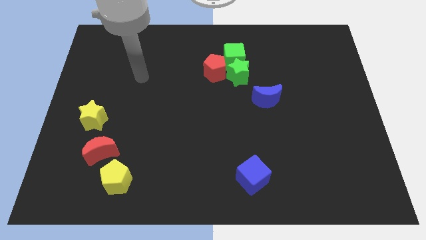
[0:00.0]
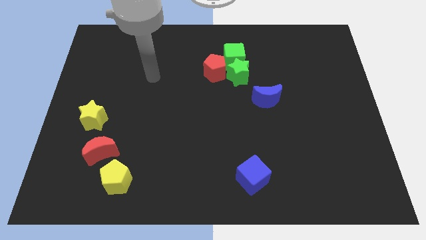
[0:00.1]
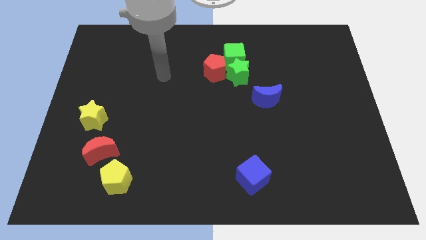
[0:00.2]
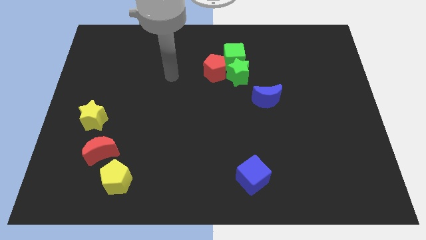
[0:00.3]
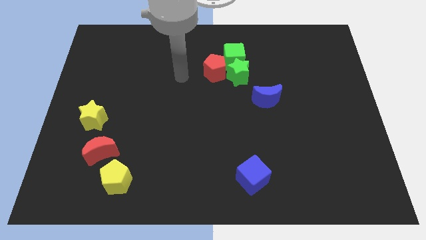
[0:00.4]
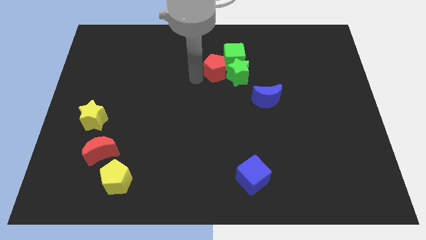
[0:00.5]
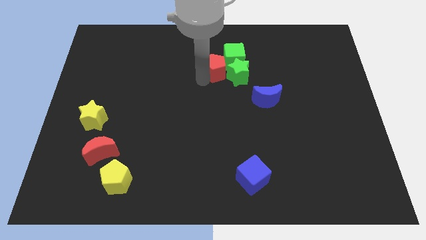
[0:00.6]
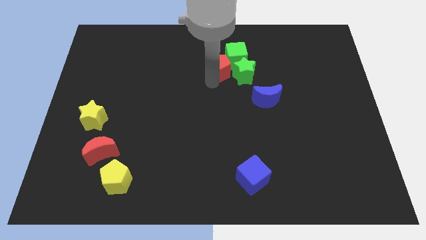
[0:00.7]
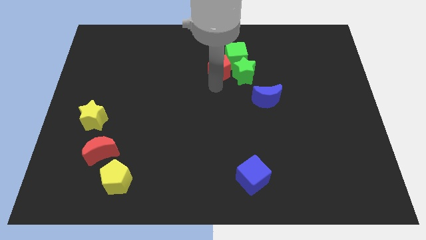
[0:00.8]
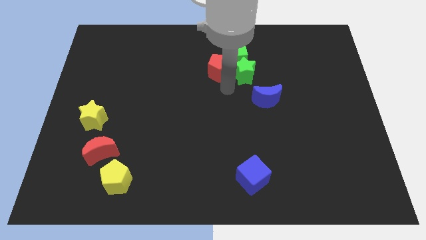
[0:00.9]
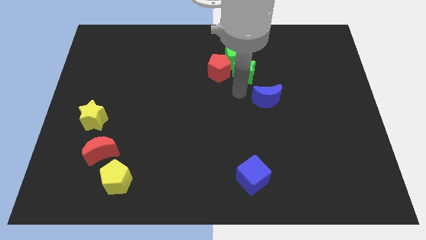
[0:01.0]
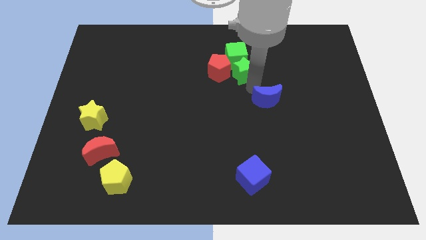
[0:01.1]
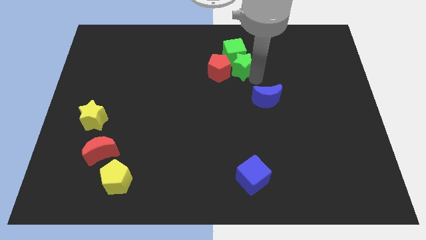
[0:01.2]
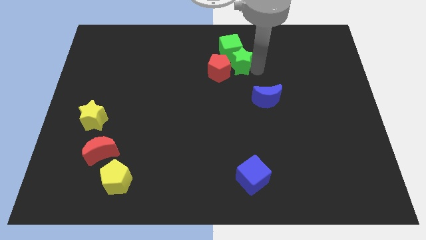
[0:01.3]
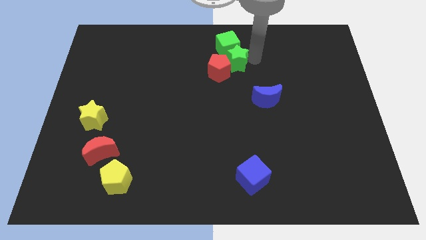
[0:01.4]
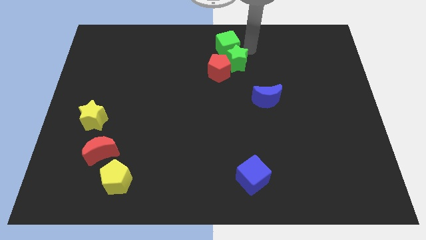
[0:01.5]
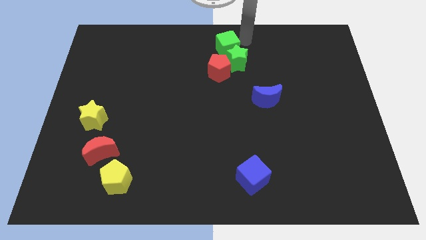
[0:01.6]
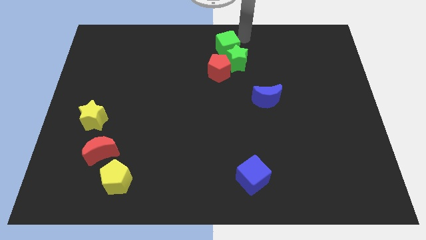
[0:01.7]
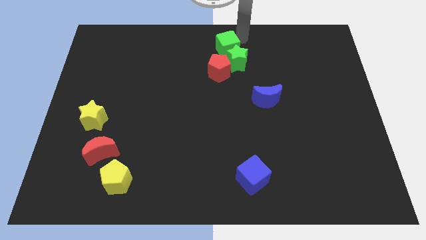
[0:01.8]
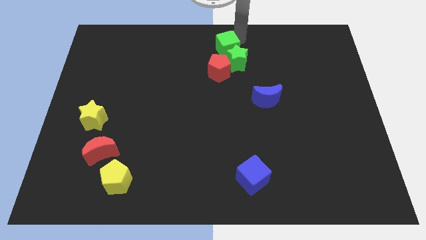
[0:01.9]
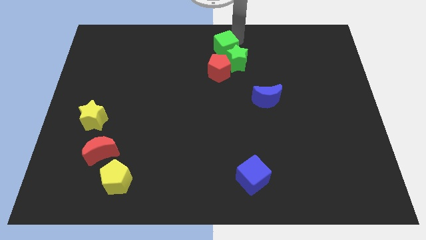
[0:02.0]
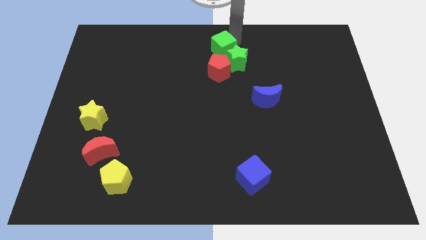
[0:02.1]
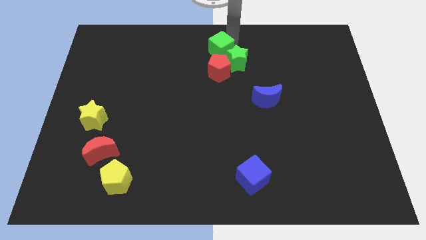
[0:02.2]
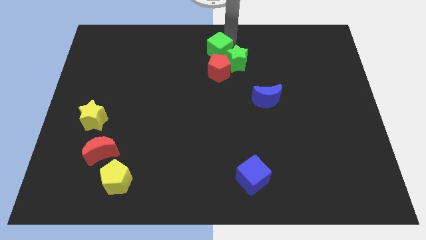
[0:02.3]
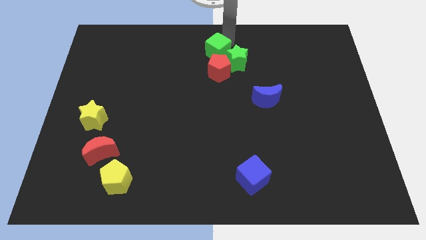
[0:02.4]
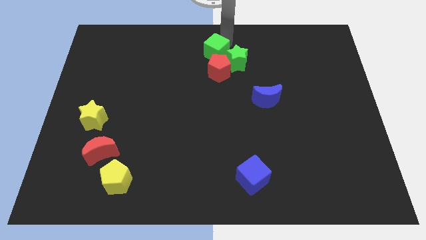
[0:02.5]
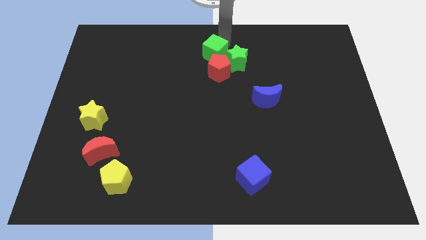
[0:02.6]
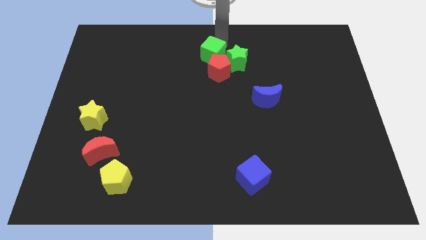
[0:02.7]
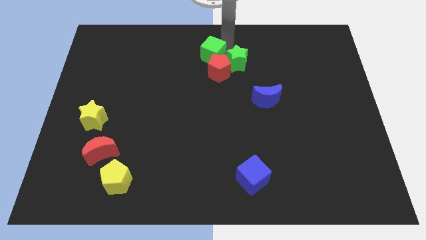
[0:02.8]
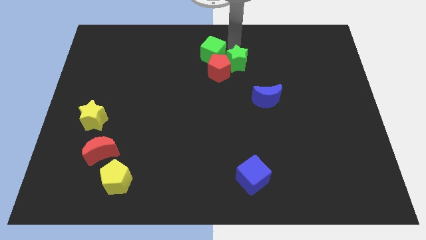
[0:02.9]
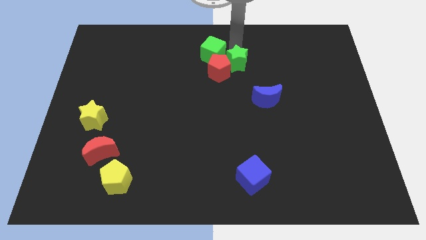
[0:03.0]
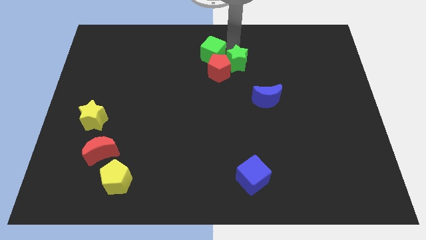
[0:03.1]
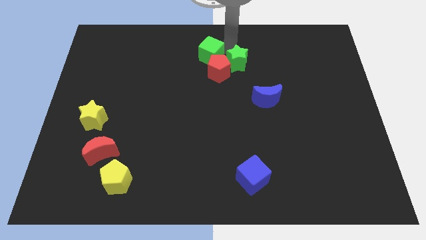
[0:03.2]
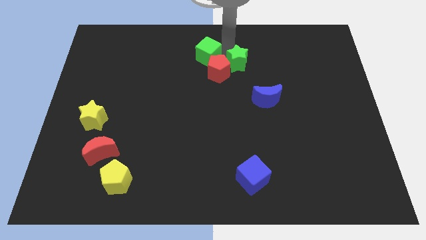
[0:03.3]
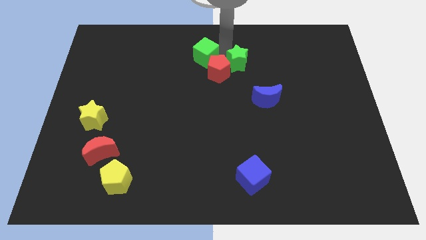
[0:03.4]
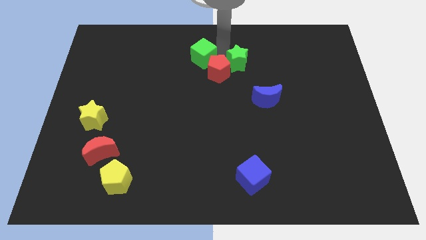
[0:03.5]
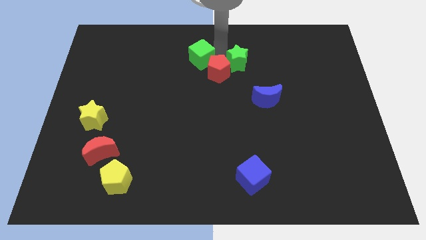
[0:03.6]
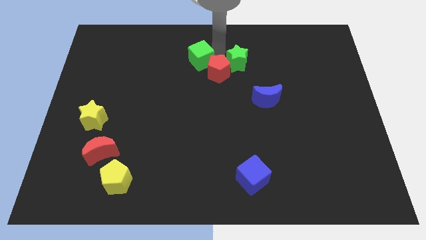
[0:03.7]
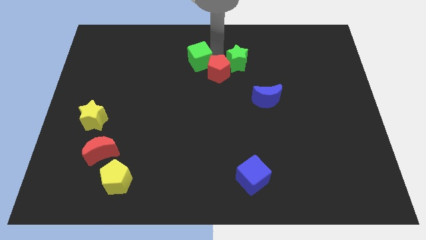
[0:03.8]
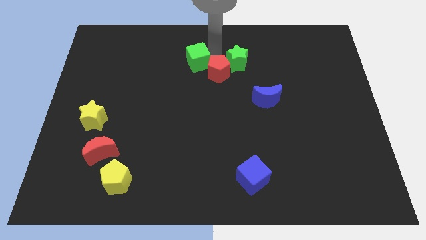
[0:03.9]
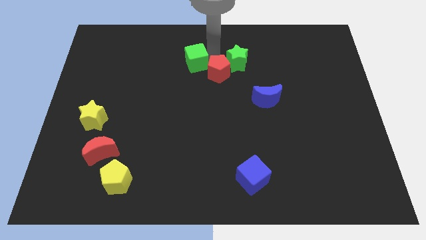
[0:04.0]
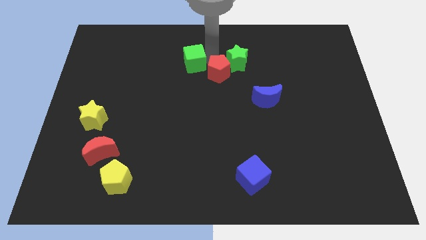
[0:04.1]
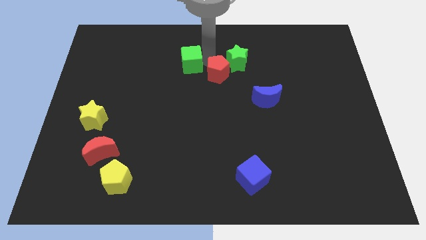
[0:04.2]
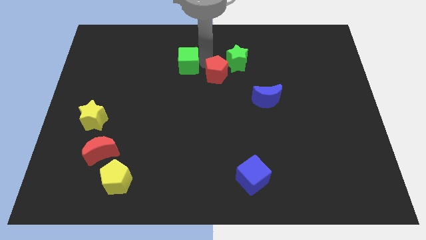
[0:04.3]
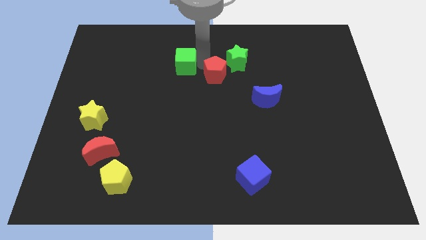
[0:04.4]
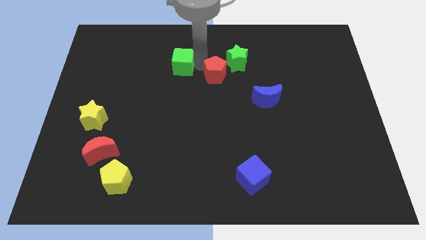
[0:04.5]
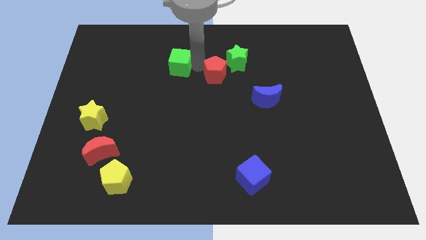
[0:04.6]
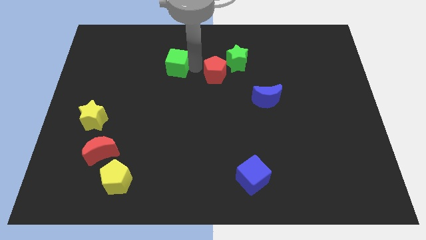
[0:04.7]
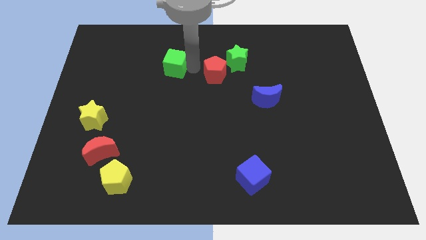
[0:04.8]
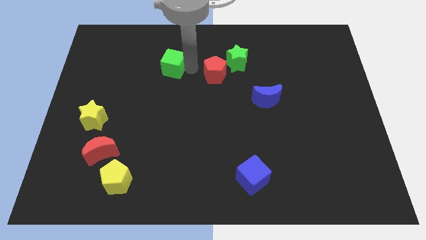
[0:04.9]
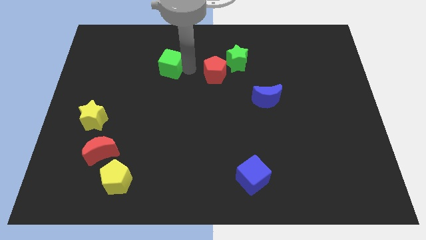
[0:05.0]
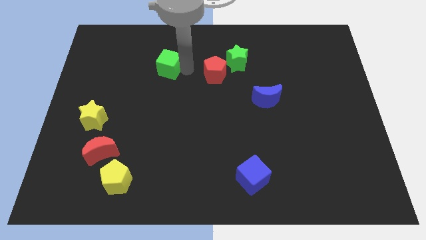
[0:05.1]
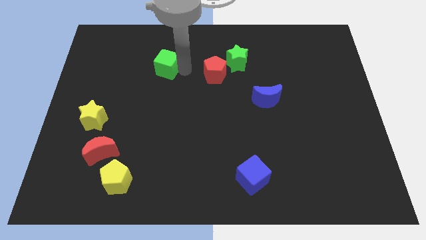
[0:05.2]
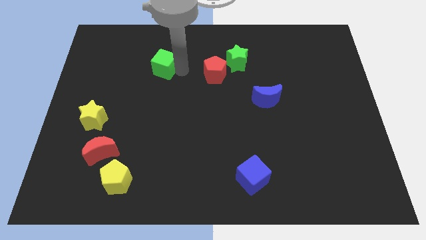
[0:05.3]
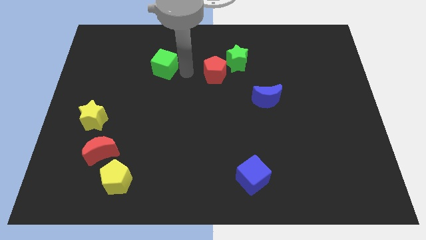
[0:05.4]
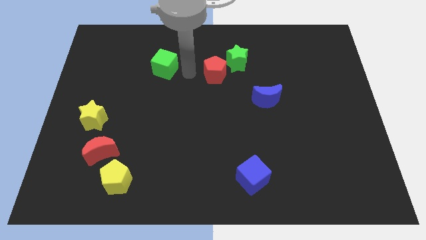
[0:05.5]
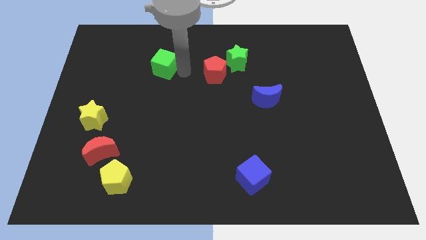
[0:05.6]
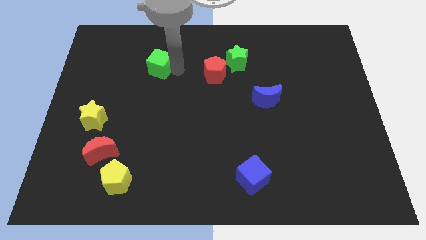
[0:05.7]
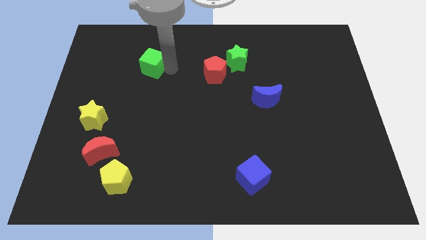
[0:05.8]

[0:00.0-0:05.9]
slide the green cube left

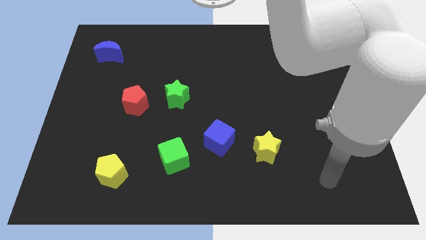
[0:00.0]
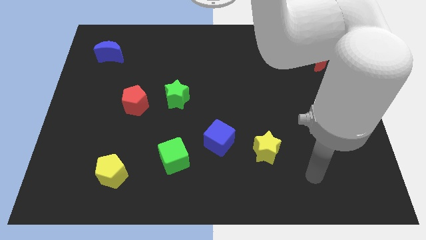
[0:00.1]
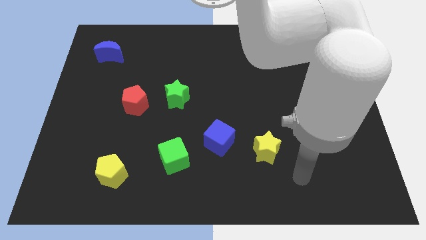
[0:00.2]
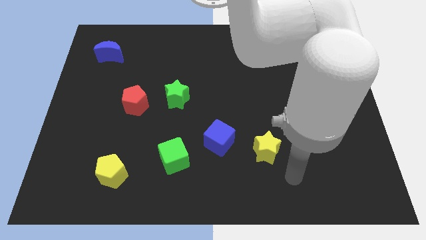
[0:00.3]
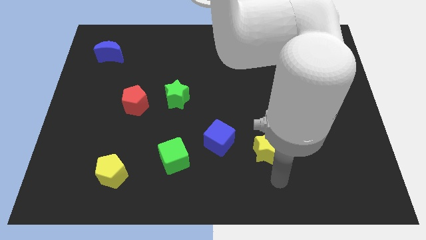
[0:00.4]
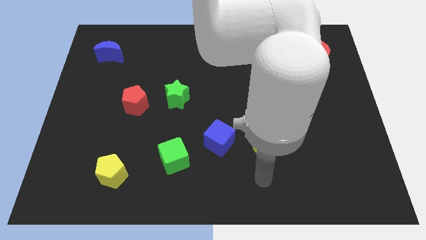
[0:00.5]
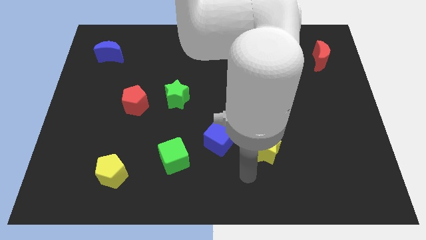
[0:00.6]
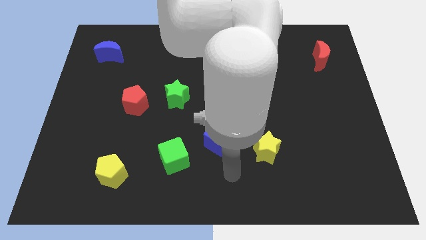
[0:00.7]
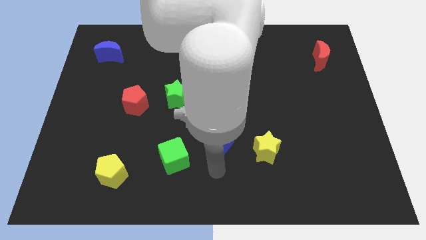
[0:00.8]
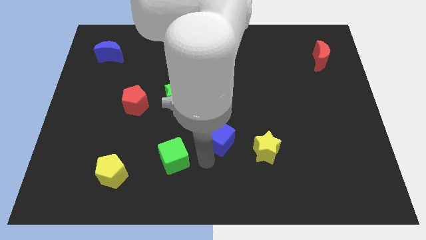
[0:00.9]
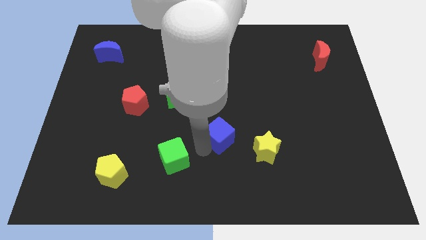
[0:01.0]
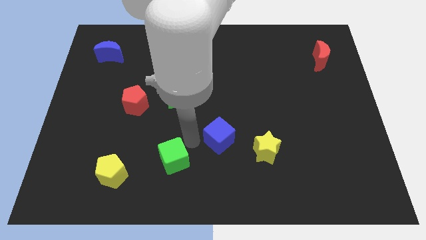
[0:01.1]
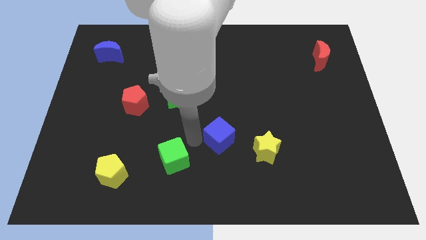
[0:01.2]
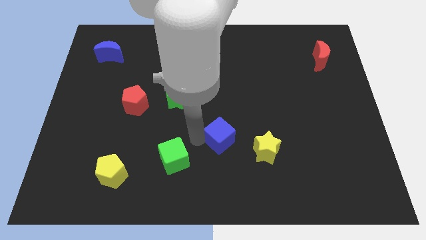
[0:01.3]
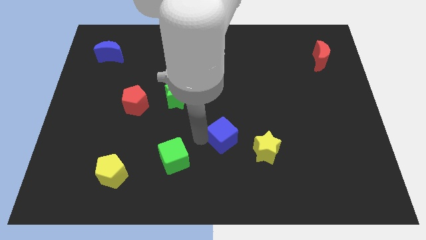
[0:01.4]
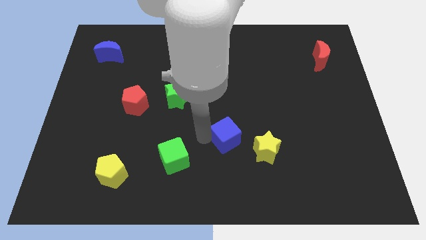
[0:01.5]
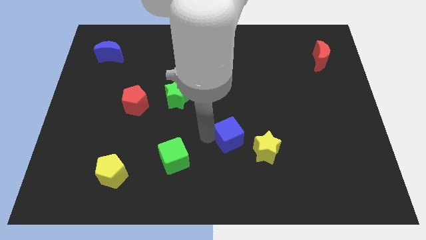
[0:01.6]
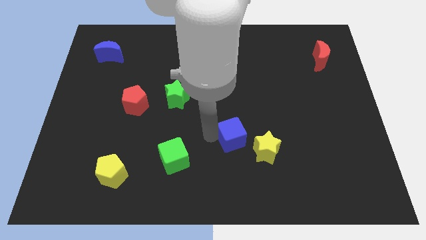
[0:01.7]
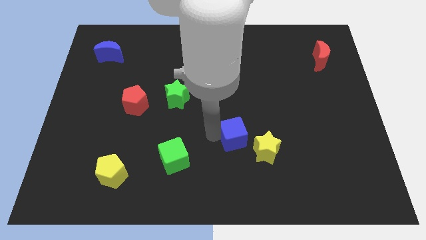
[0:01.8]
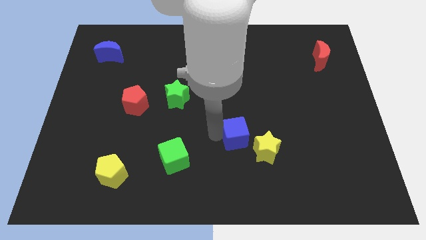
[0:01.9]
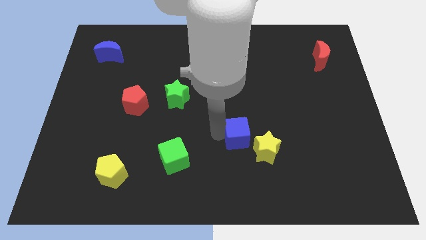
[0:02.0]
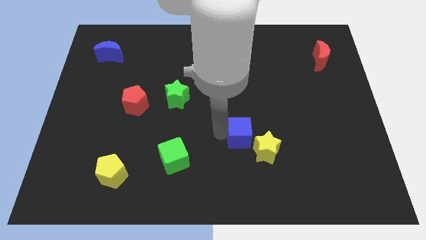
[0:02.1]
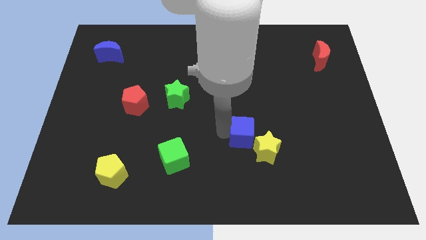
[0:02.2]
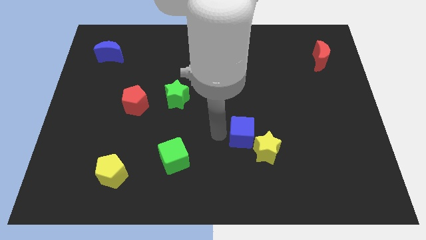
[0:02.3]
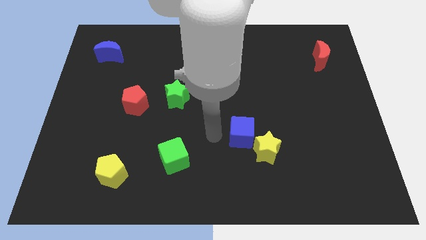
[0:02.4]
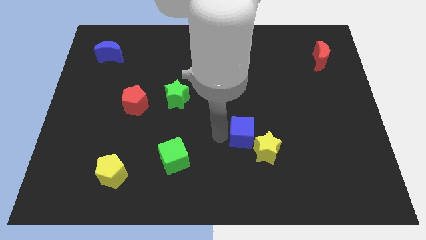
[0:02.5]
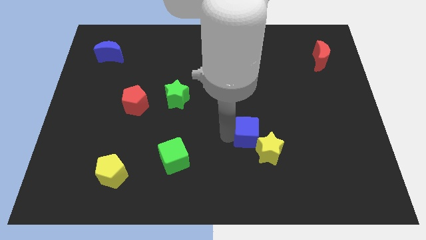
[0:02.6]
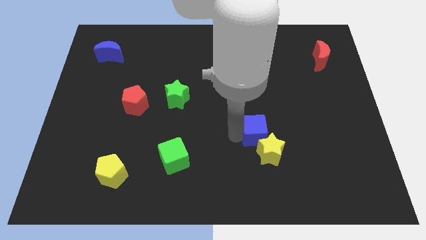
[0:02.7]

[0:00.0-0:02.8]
slide the blue cube slightly to the right
